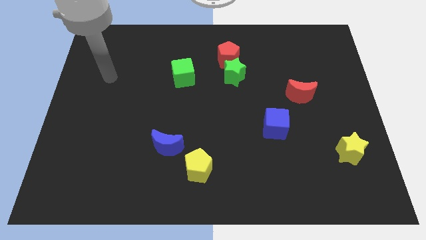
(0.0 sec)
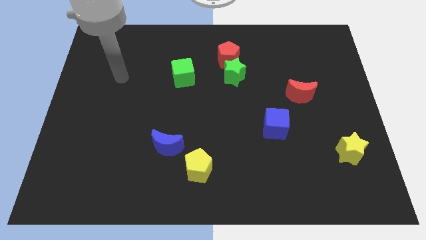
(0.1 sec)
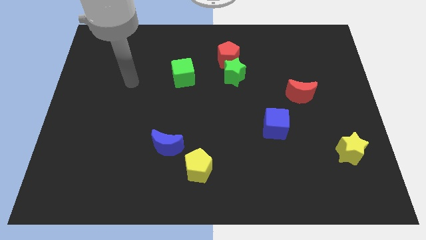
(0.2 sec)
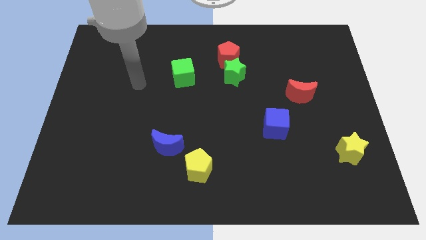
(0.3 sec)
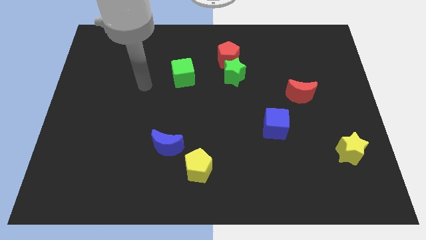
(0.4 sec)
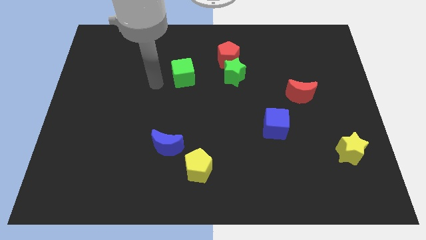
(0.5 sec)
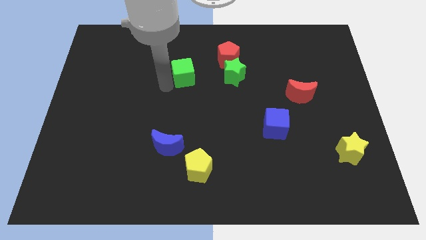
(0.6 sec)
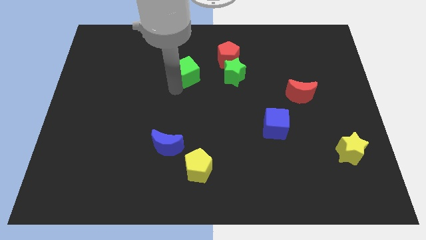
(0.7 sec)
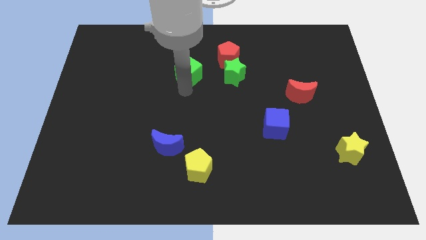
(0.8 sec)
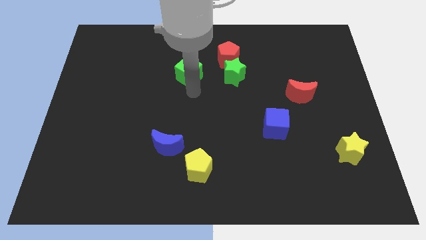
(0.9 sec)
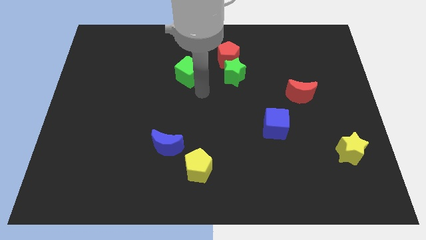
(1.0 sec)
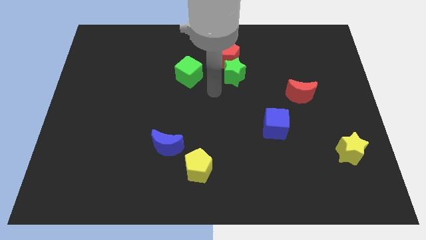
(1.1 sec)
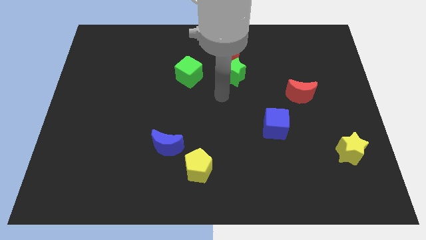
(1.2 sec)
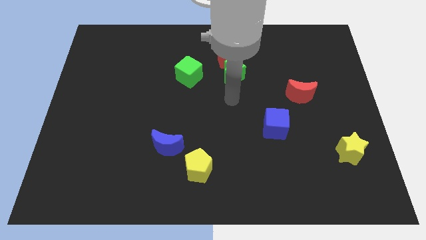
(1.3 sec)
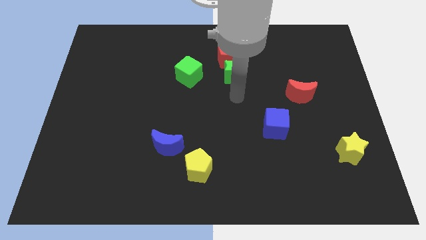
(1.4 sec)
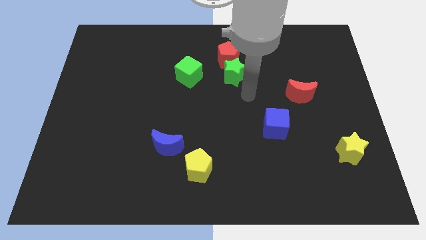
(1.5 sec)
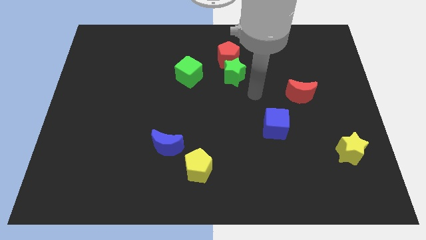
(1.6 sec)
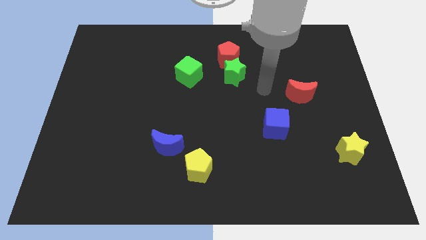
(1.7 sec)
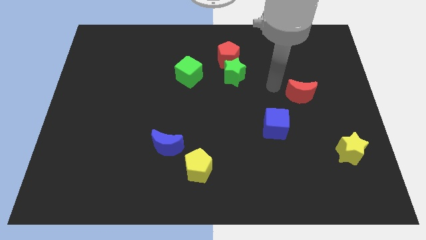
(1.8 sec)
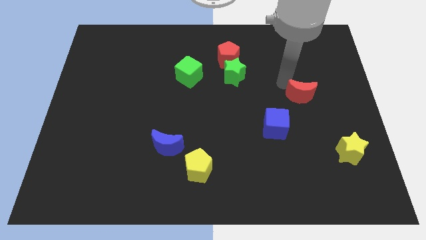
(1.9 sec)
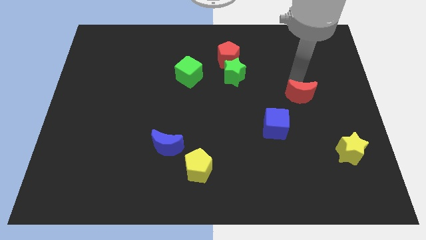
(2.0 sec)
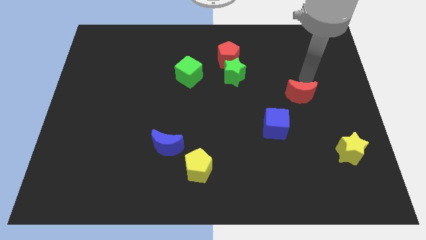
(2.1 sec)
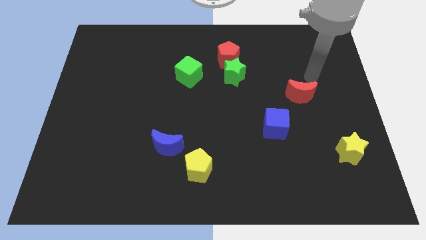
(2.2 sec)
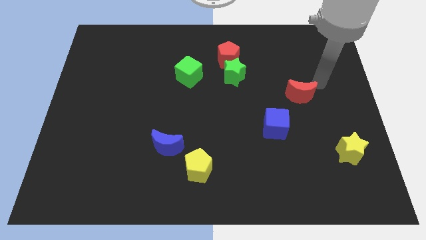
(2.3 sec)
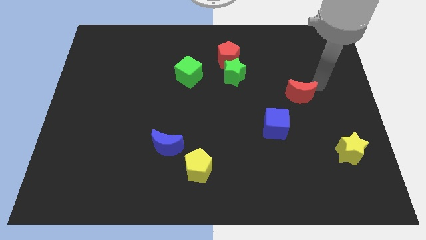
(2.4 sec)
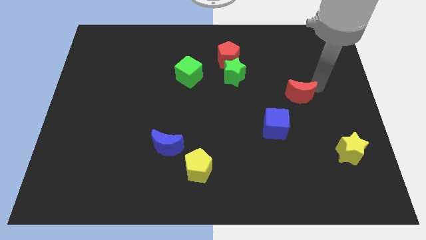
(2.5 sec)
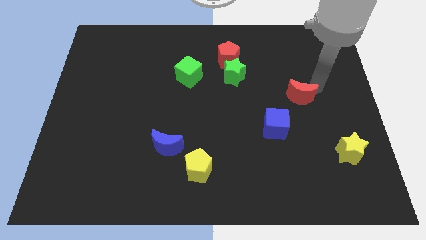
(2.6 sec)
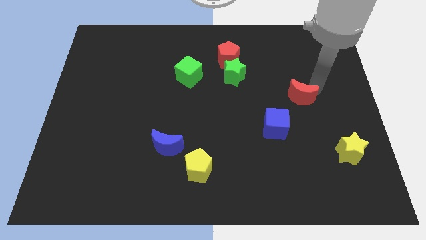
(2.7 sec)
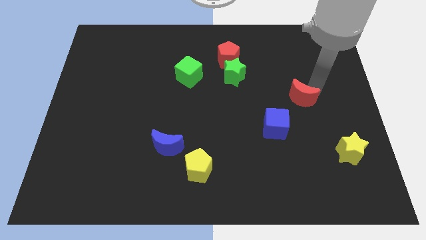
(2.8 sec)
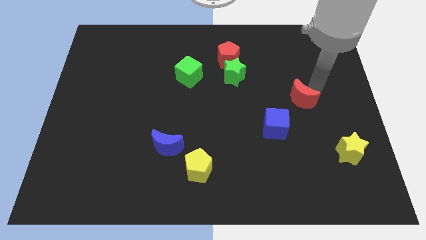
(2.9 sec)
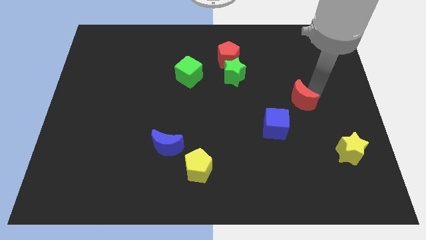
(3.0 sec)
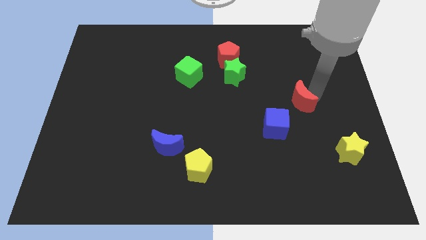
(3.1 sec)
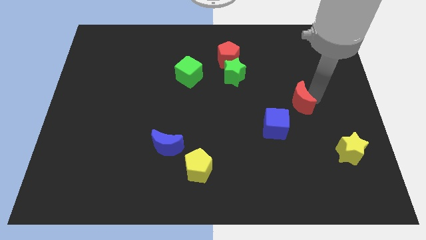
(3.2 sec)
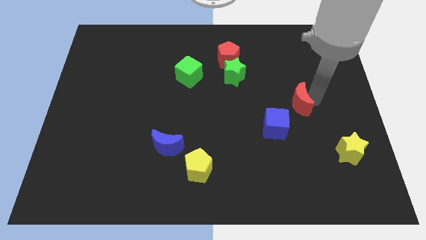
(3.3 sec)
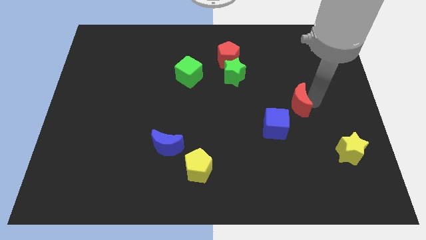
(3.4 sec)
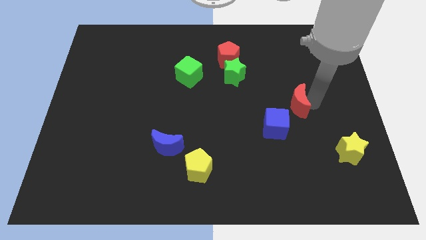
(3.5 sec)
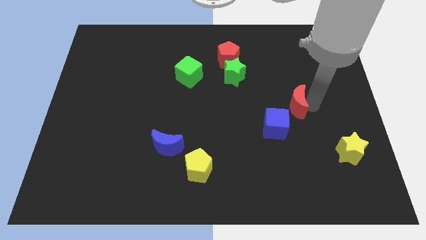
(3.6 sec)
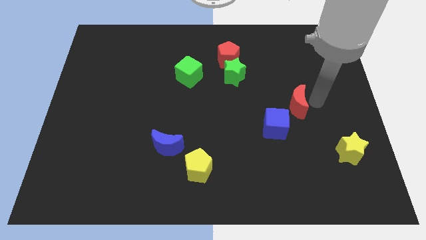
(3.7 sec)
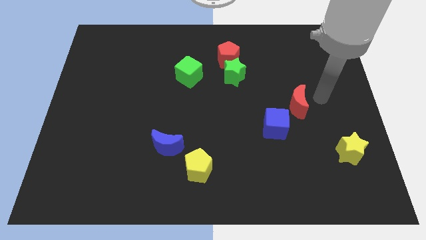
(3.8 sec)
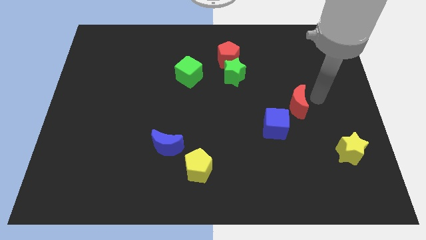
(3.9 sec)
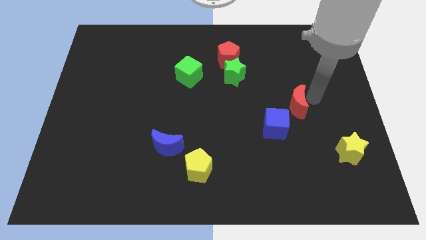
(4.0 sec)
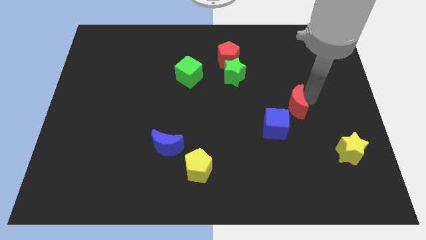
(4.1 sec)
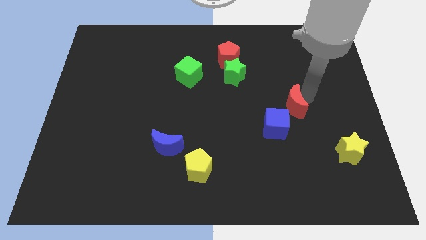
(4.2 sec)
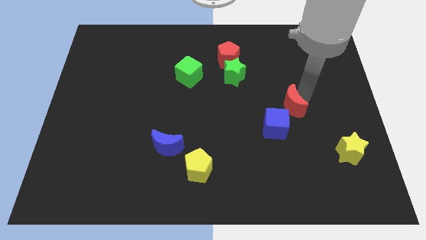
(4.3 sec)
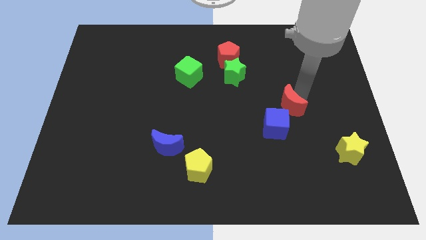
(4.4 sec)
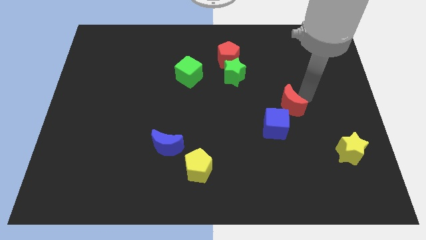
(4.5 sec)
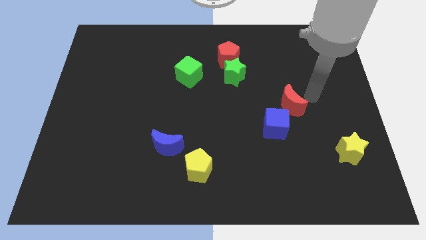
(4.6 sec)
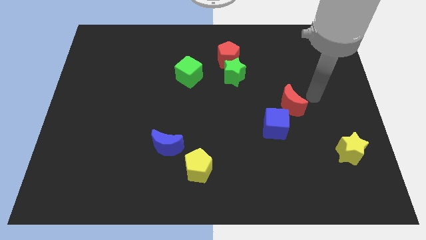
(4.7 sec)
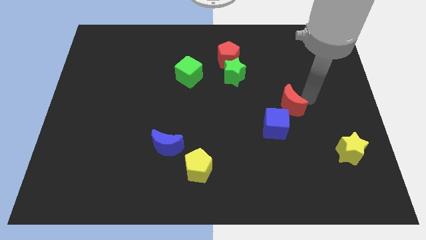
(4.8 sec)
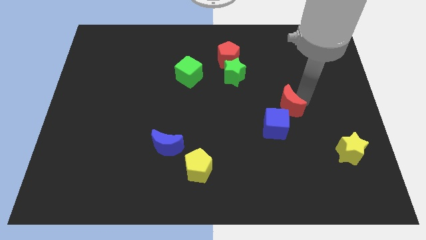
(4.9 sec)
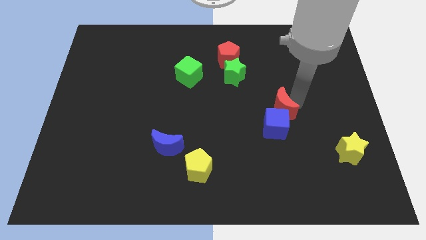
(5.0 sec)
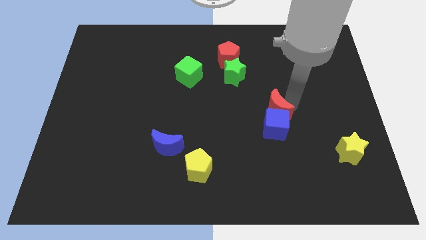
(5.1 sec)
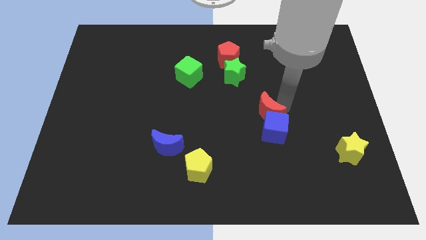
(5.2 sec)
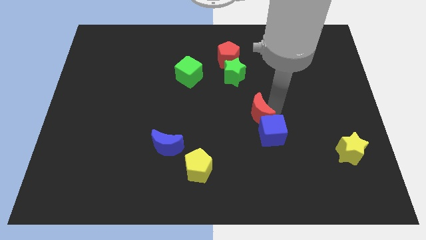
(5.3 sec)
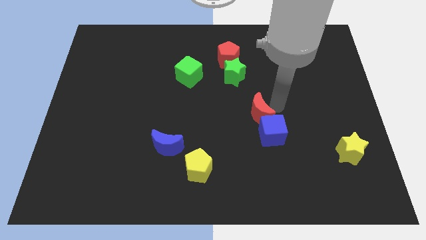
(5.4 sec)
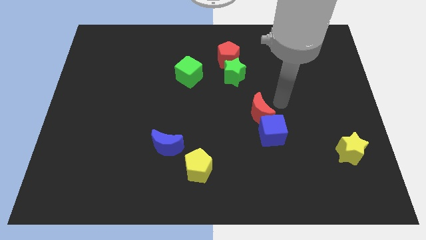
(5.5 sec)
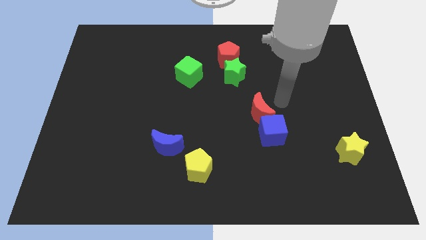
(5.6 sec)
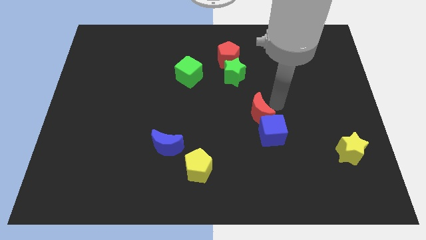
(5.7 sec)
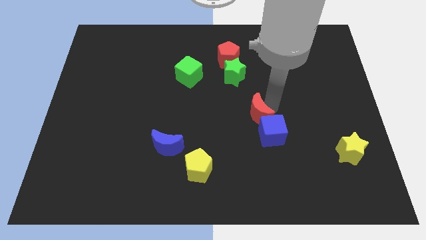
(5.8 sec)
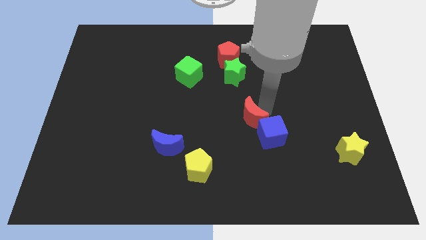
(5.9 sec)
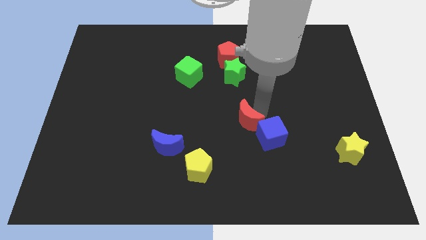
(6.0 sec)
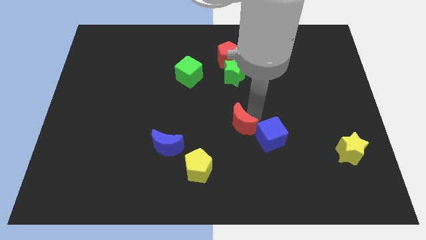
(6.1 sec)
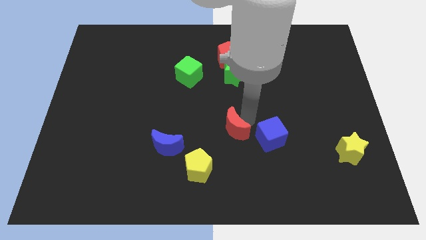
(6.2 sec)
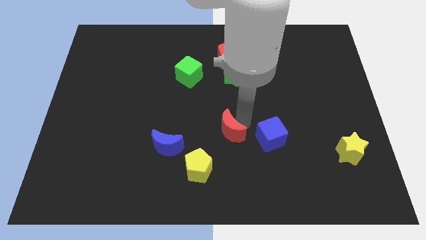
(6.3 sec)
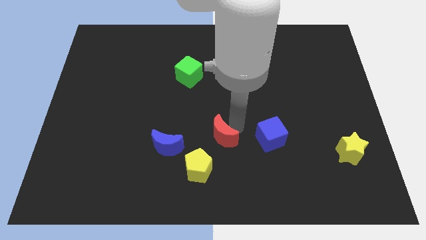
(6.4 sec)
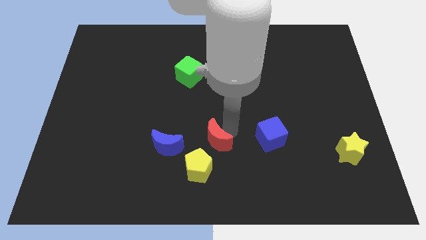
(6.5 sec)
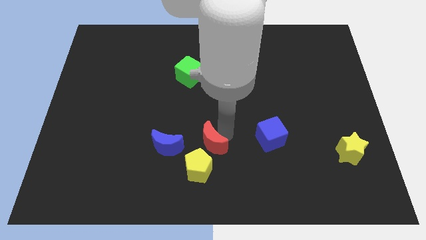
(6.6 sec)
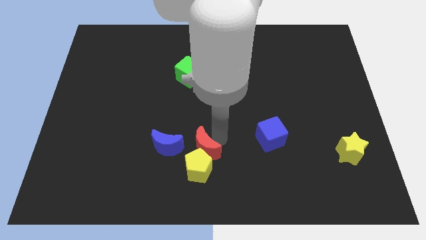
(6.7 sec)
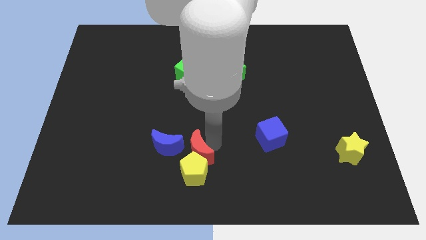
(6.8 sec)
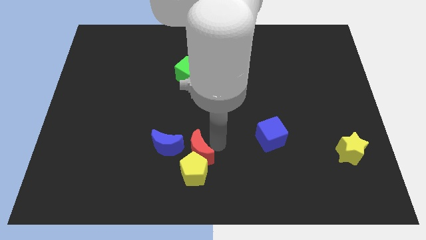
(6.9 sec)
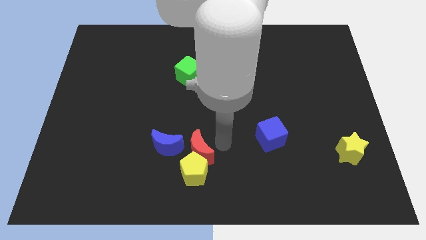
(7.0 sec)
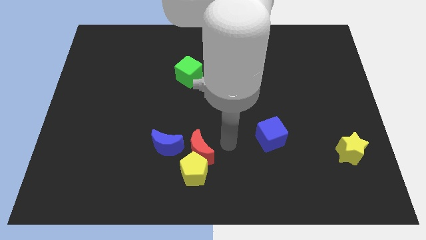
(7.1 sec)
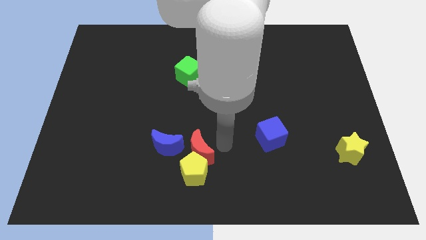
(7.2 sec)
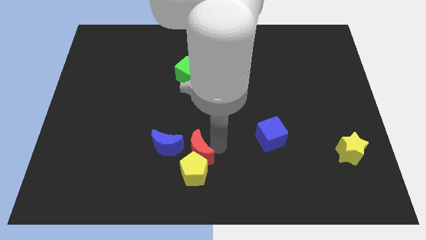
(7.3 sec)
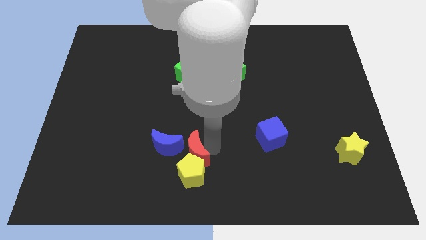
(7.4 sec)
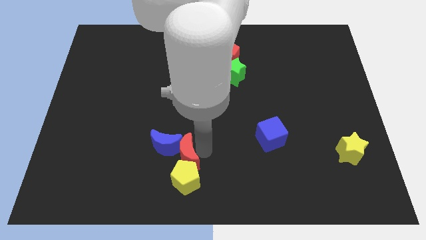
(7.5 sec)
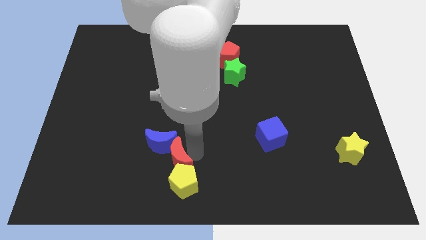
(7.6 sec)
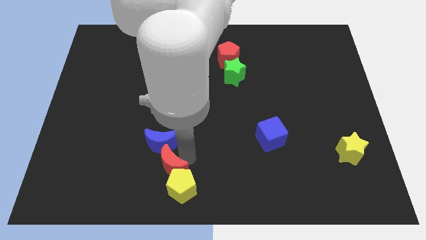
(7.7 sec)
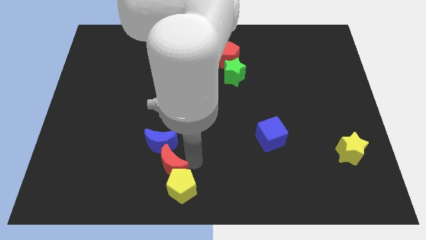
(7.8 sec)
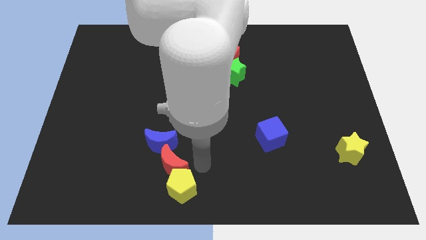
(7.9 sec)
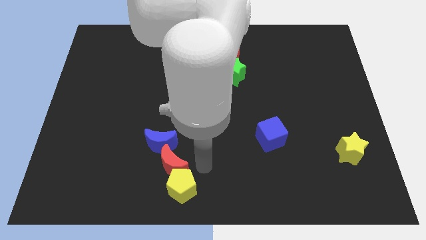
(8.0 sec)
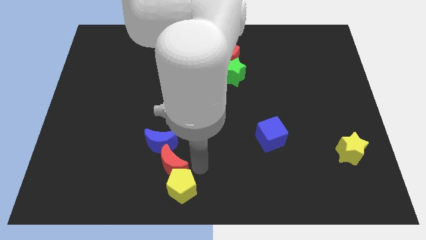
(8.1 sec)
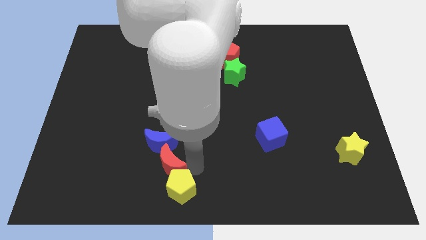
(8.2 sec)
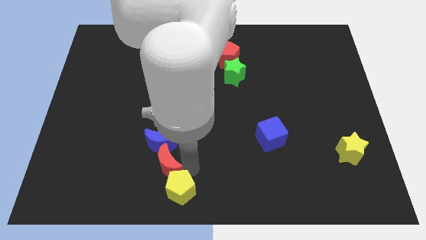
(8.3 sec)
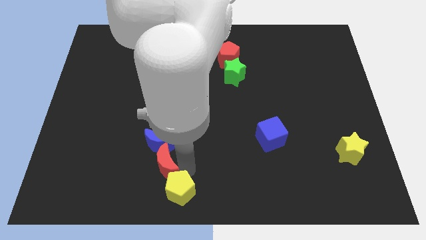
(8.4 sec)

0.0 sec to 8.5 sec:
move the red moon diagonally down and to the left of the blue moon
